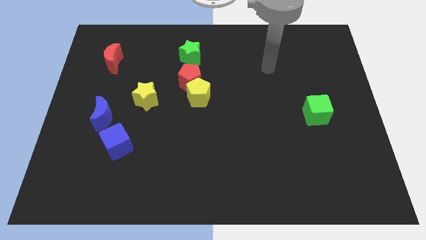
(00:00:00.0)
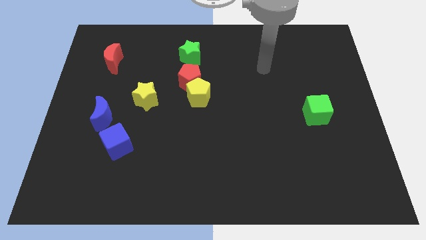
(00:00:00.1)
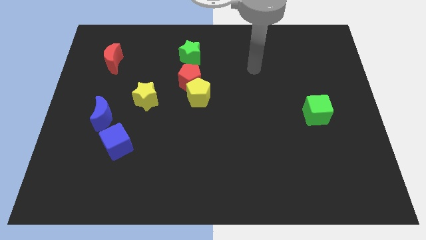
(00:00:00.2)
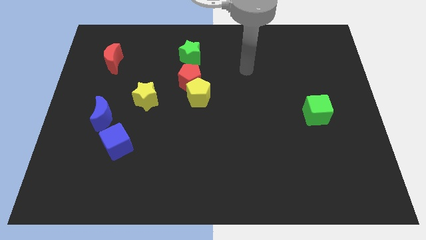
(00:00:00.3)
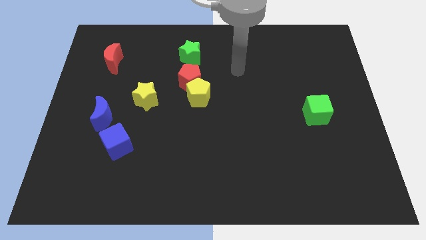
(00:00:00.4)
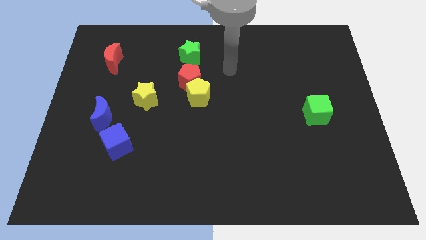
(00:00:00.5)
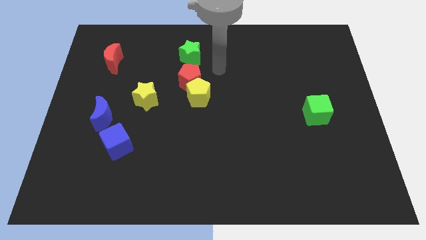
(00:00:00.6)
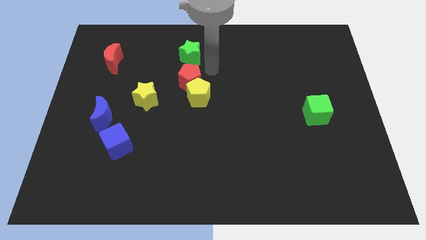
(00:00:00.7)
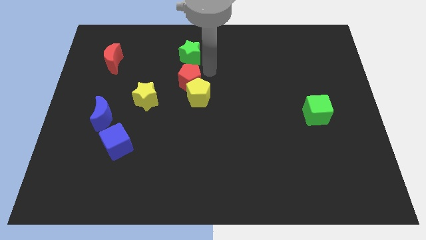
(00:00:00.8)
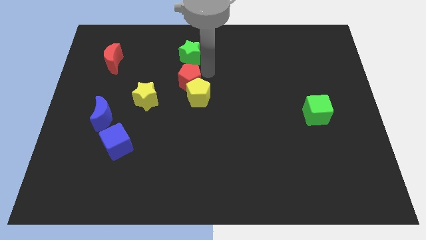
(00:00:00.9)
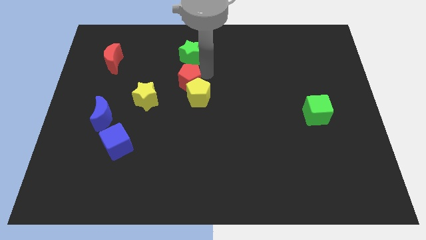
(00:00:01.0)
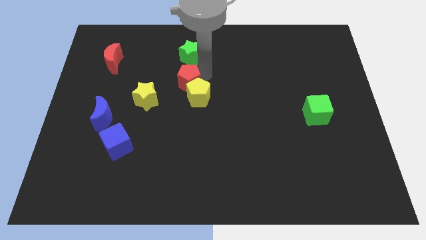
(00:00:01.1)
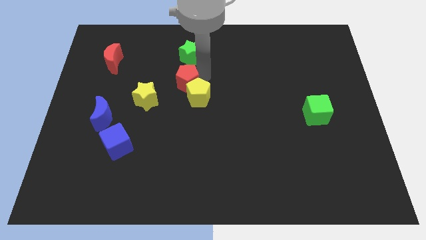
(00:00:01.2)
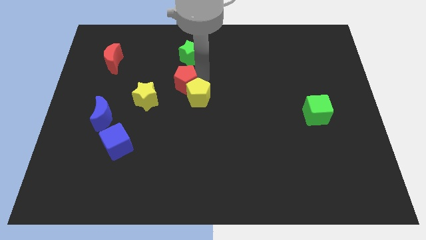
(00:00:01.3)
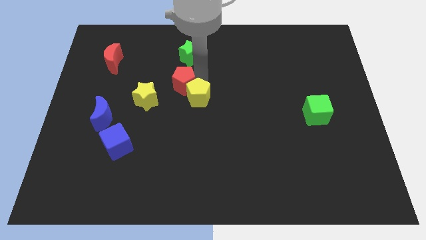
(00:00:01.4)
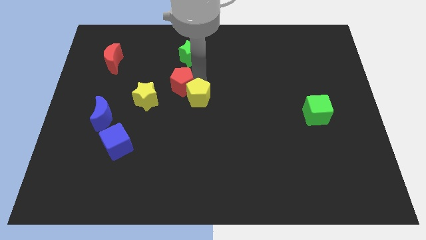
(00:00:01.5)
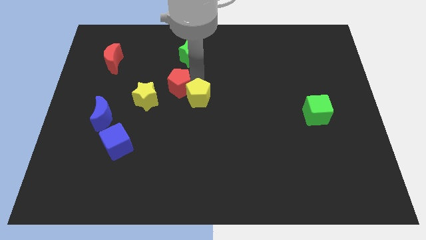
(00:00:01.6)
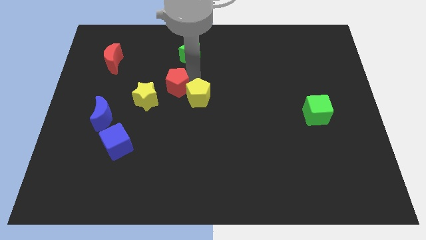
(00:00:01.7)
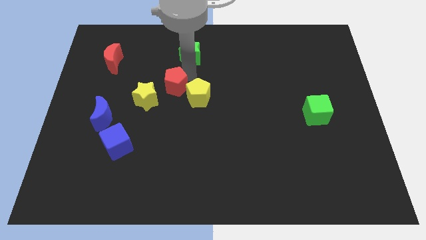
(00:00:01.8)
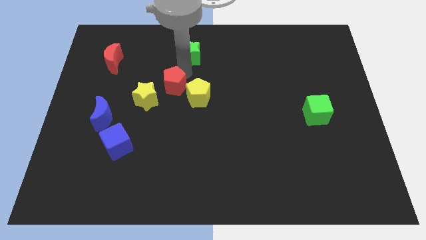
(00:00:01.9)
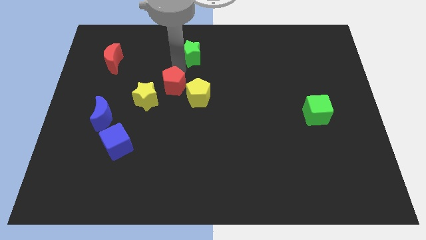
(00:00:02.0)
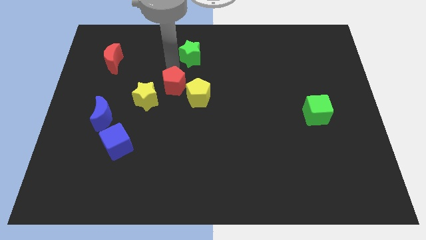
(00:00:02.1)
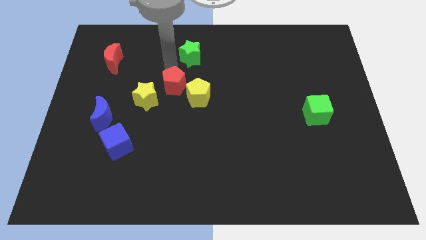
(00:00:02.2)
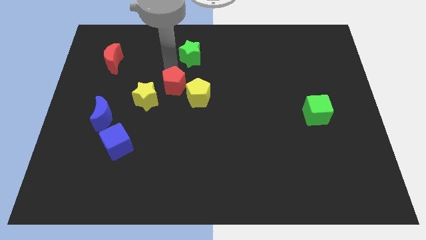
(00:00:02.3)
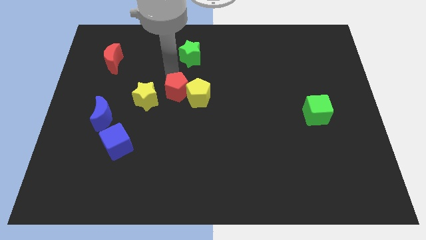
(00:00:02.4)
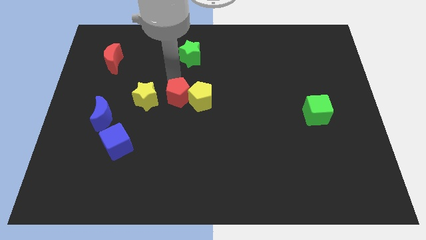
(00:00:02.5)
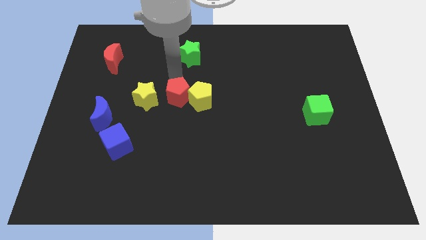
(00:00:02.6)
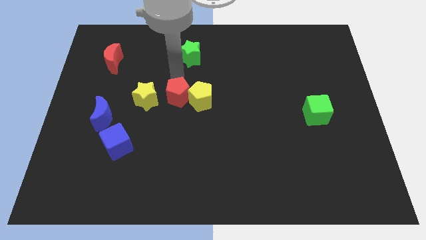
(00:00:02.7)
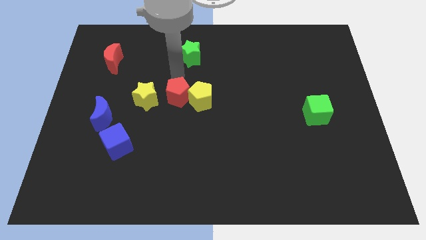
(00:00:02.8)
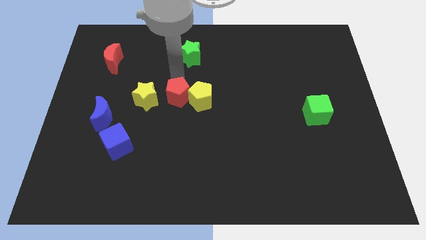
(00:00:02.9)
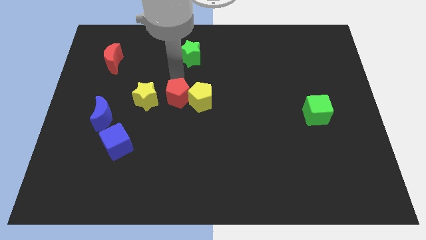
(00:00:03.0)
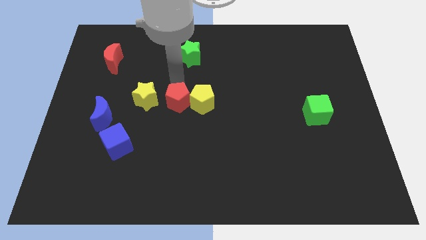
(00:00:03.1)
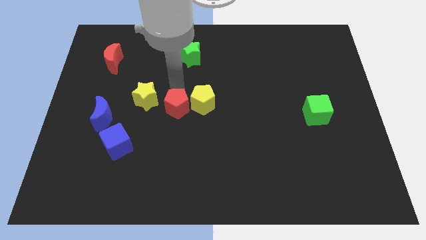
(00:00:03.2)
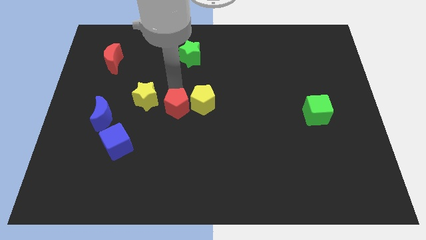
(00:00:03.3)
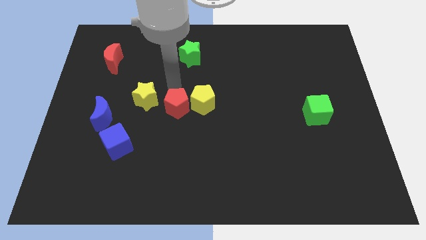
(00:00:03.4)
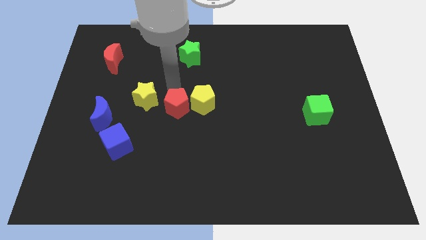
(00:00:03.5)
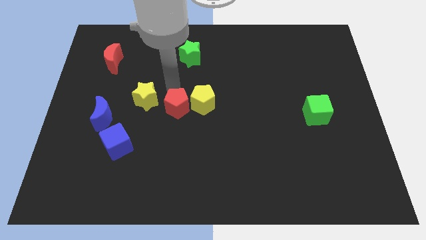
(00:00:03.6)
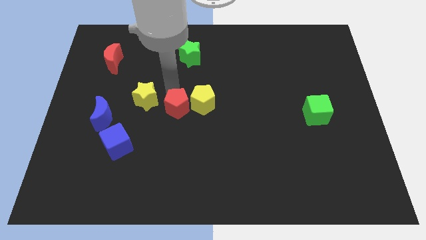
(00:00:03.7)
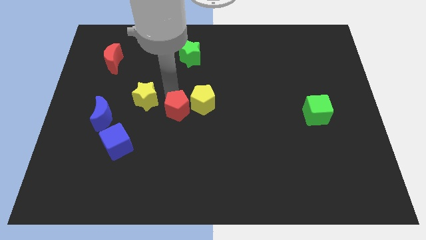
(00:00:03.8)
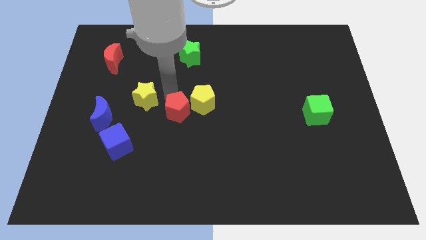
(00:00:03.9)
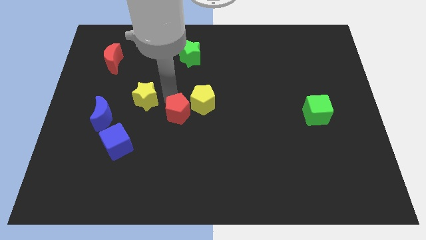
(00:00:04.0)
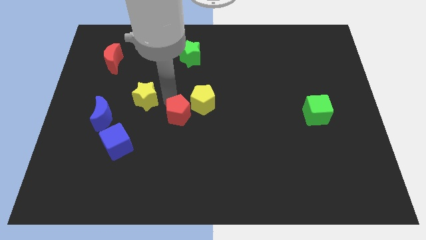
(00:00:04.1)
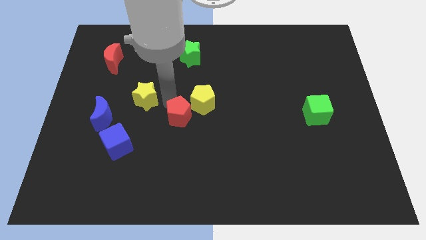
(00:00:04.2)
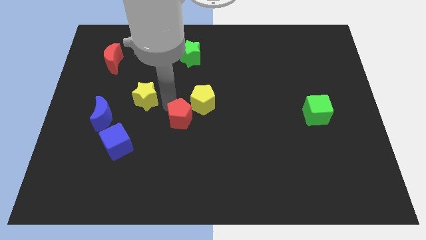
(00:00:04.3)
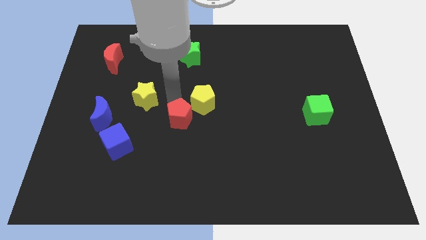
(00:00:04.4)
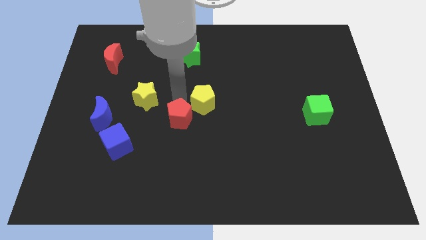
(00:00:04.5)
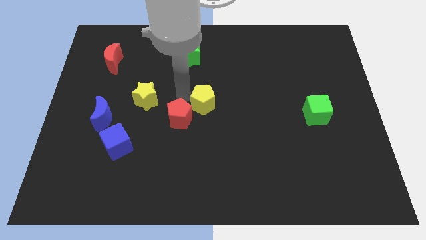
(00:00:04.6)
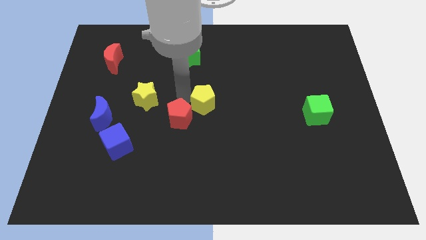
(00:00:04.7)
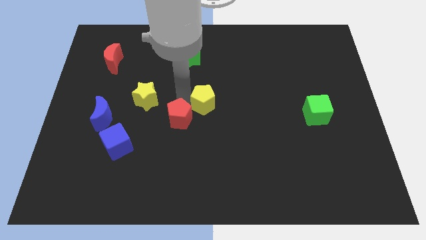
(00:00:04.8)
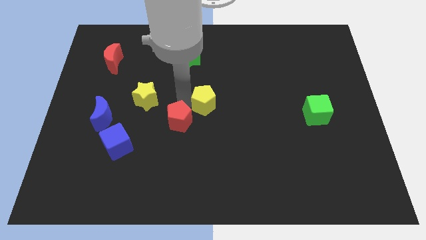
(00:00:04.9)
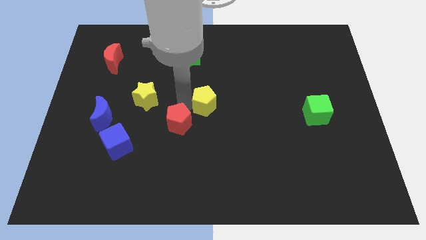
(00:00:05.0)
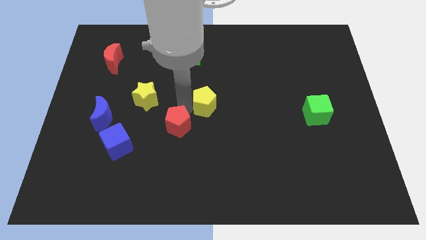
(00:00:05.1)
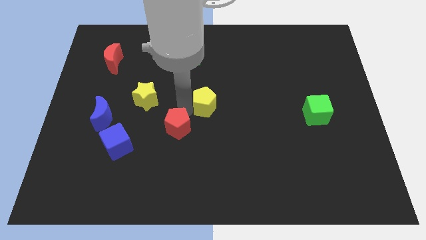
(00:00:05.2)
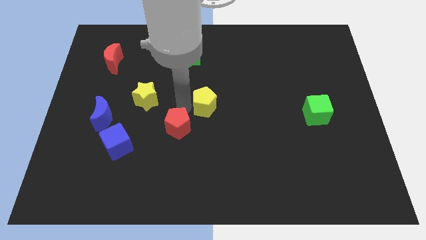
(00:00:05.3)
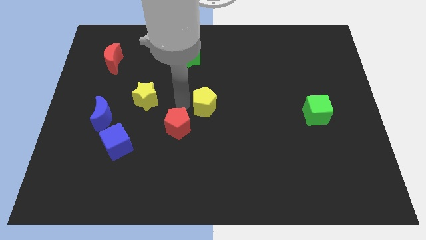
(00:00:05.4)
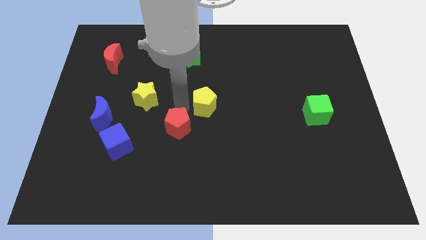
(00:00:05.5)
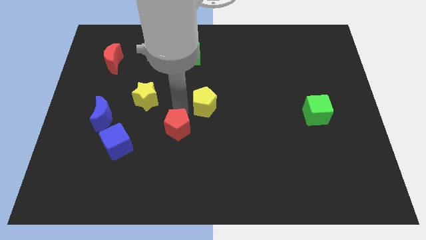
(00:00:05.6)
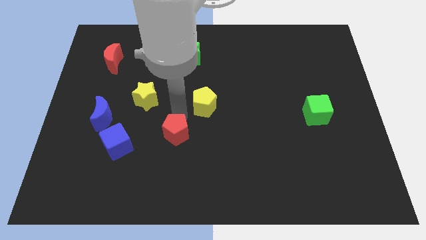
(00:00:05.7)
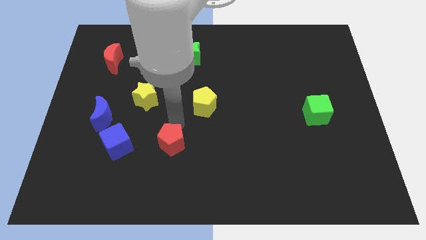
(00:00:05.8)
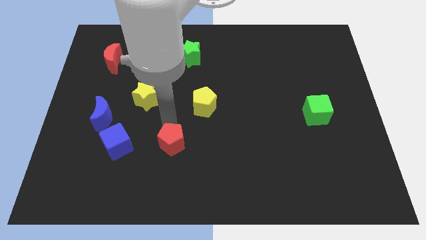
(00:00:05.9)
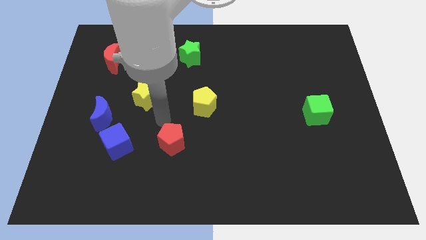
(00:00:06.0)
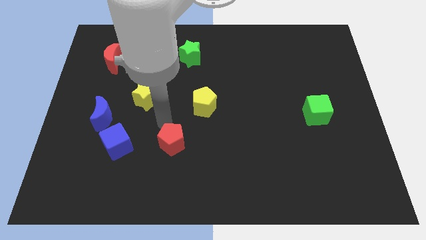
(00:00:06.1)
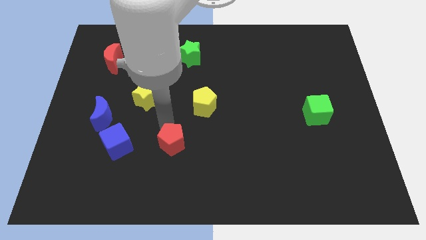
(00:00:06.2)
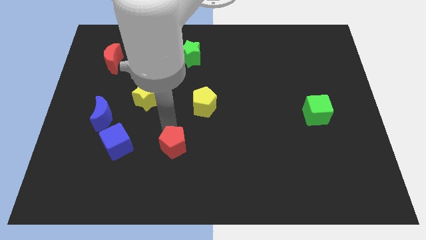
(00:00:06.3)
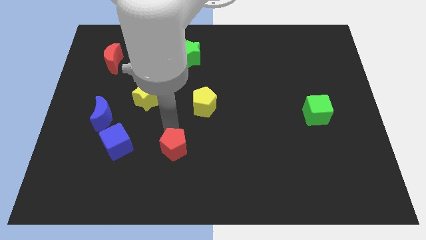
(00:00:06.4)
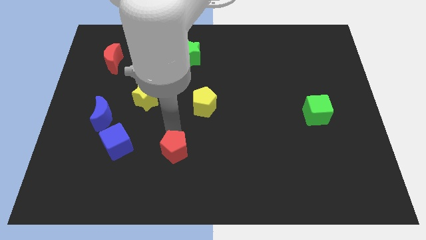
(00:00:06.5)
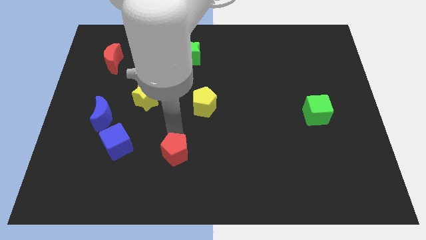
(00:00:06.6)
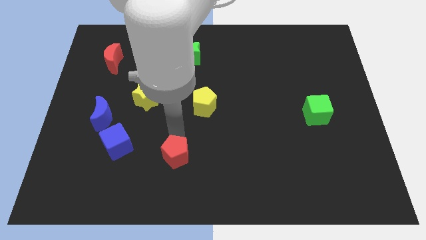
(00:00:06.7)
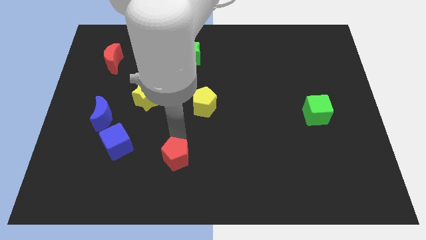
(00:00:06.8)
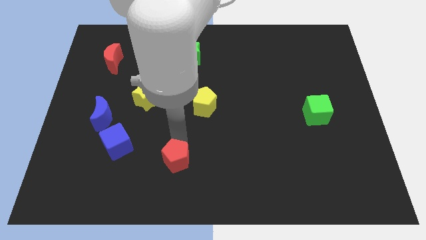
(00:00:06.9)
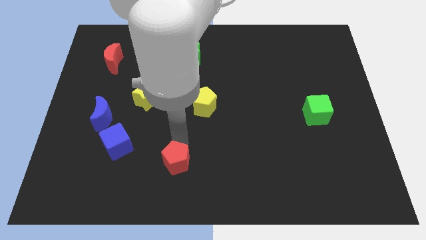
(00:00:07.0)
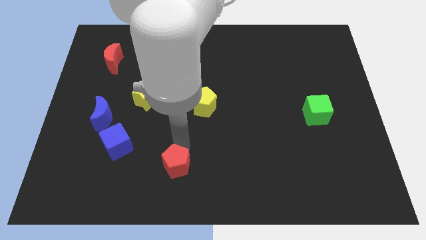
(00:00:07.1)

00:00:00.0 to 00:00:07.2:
push the red pentagon to the bottom side
